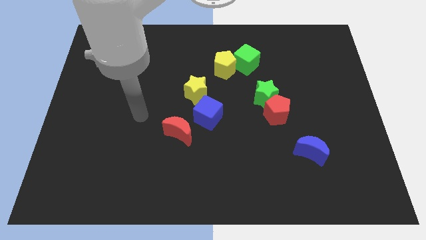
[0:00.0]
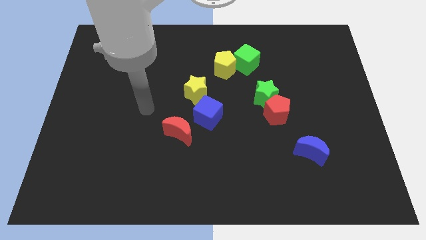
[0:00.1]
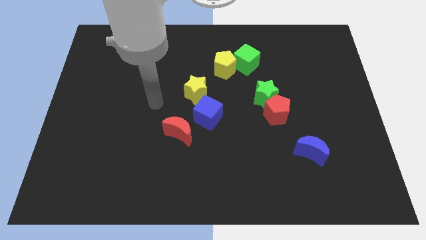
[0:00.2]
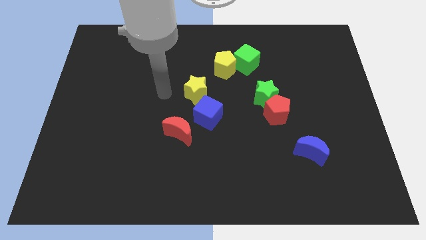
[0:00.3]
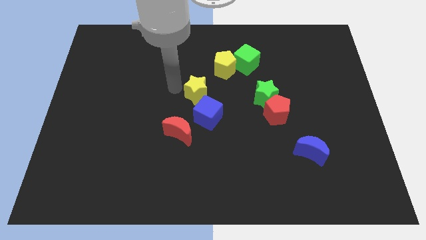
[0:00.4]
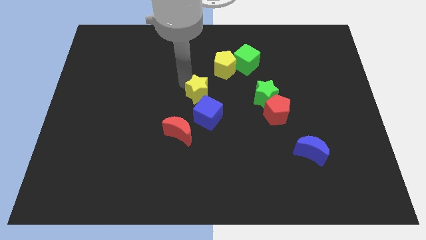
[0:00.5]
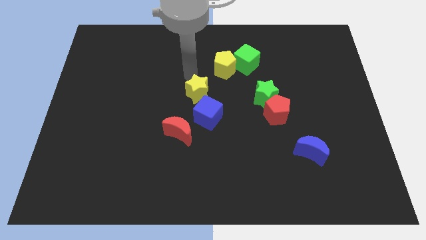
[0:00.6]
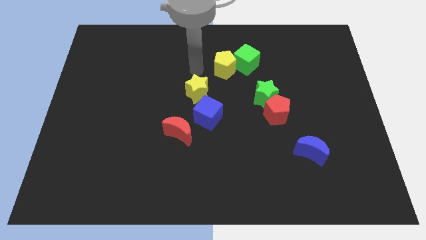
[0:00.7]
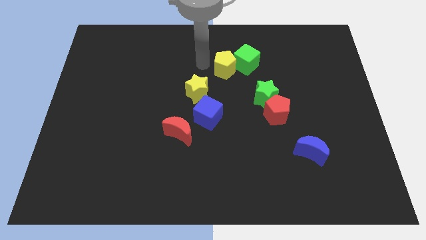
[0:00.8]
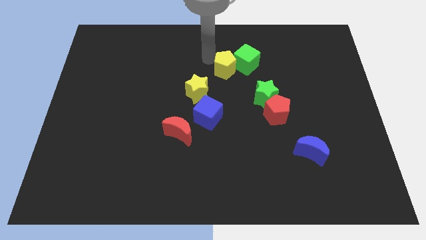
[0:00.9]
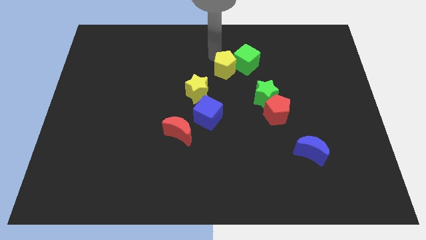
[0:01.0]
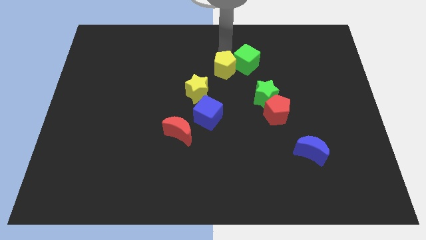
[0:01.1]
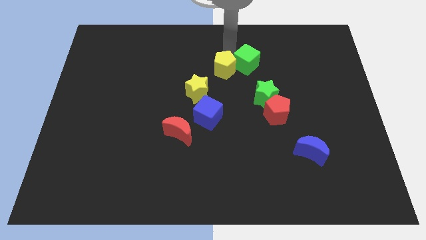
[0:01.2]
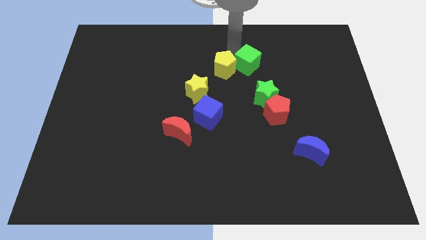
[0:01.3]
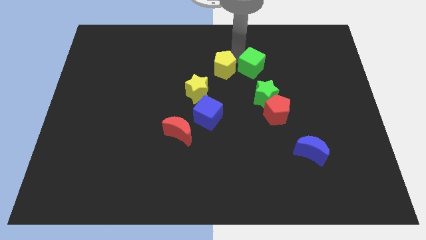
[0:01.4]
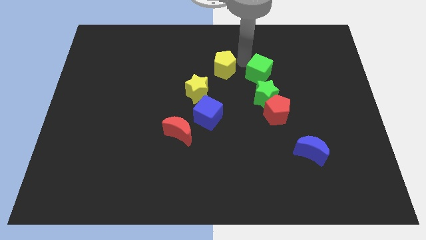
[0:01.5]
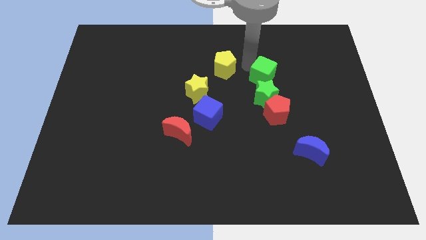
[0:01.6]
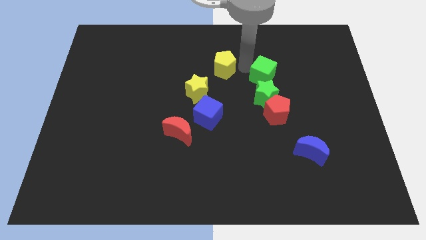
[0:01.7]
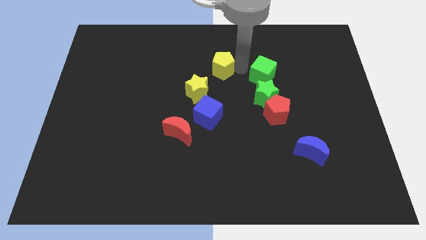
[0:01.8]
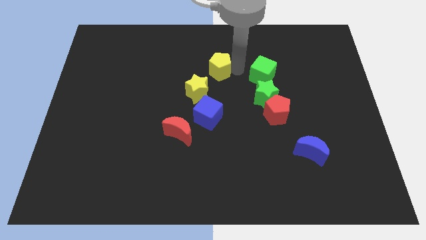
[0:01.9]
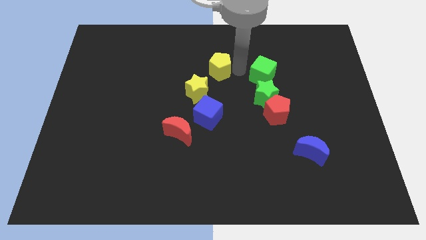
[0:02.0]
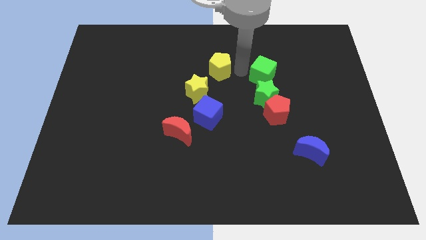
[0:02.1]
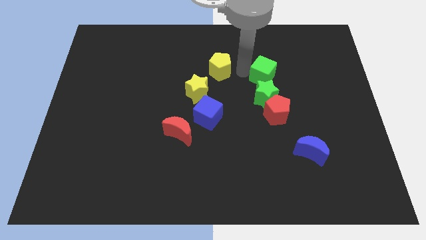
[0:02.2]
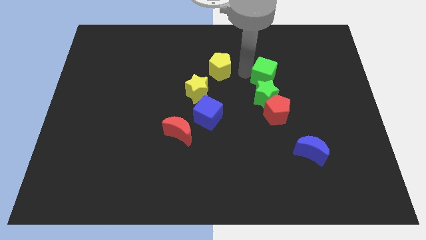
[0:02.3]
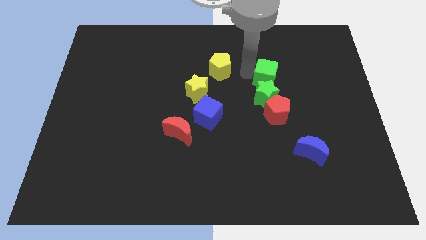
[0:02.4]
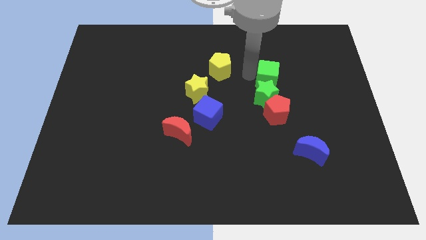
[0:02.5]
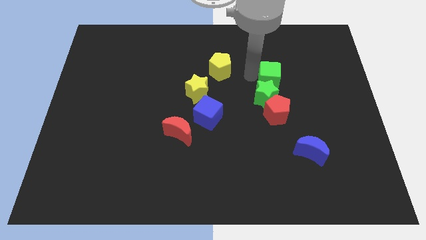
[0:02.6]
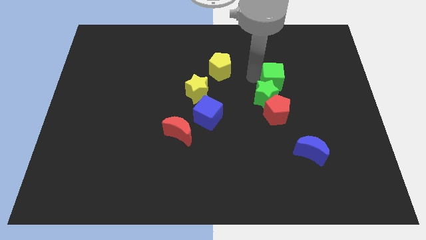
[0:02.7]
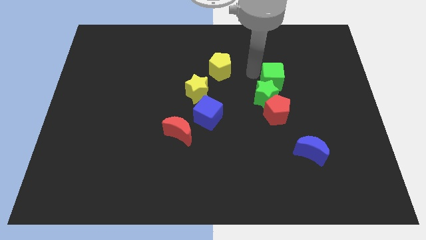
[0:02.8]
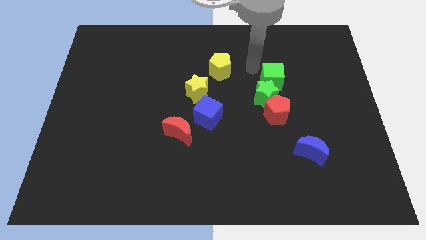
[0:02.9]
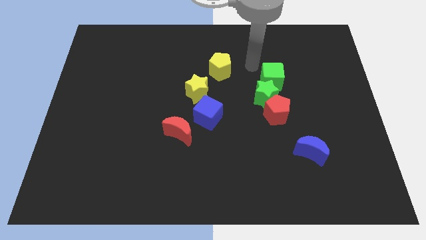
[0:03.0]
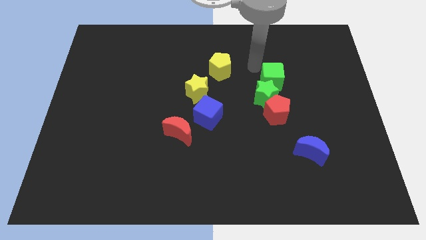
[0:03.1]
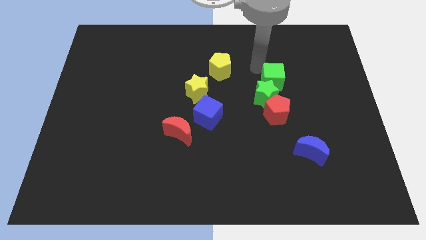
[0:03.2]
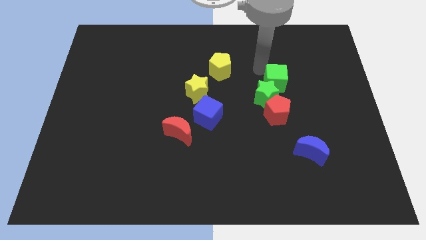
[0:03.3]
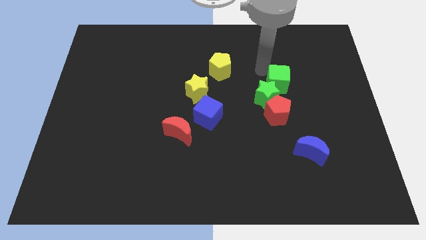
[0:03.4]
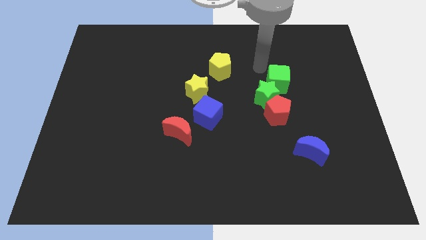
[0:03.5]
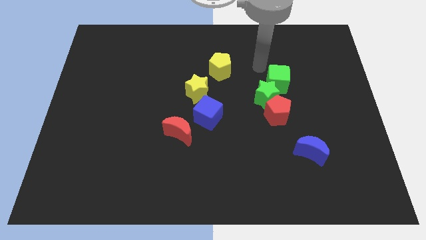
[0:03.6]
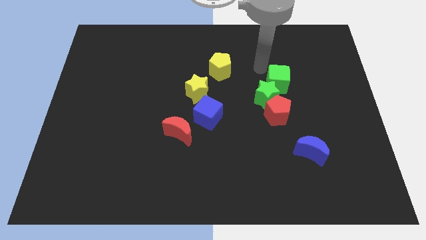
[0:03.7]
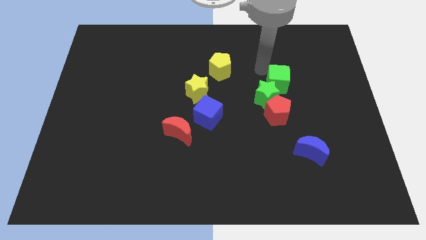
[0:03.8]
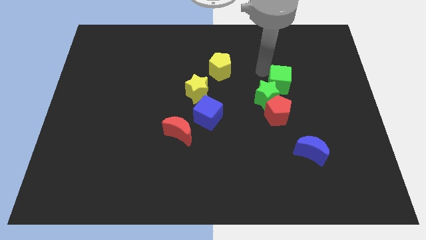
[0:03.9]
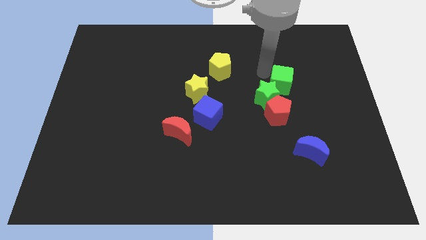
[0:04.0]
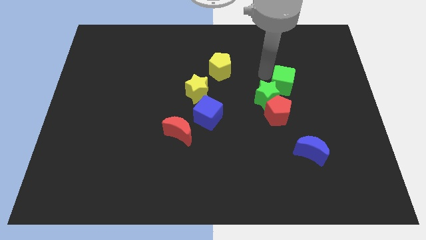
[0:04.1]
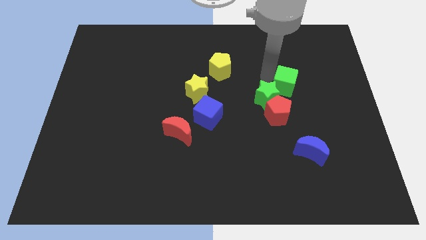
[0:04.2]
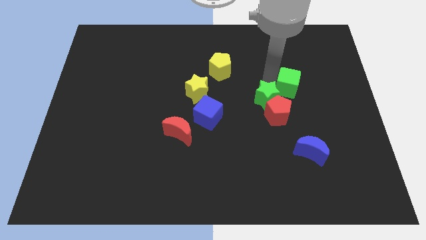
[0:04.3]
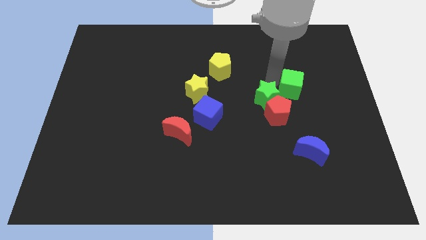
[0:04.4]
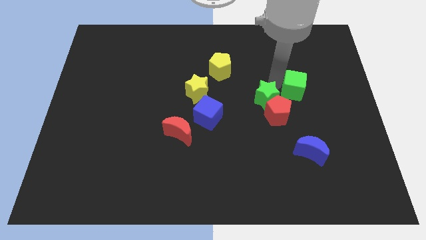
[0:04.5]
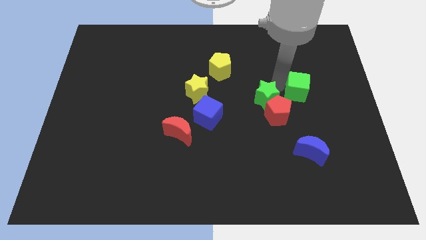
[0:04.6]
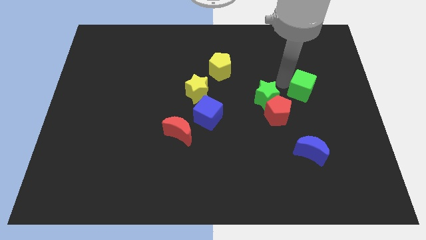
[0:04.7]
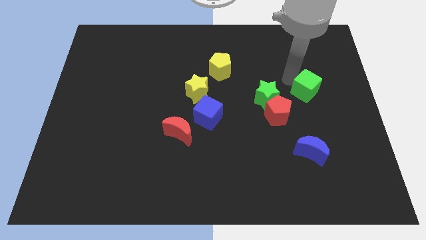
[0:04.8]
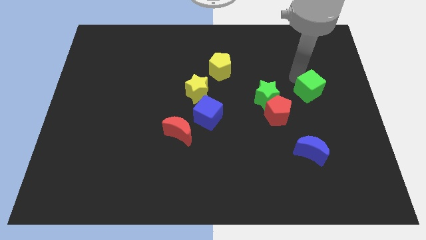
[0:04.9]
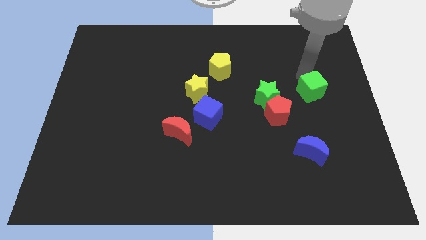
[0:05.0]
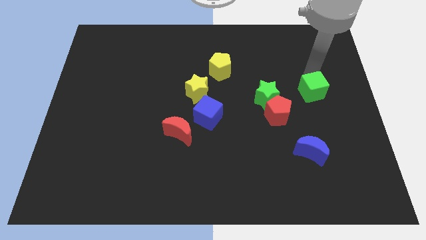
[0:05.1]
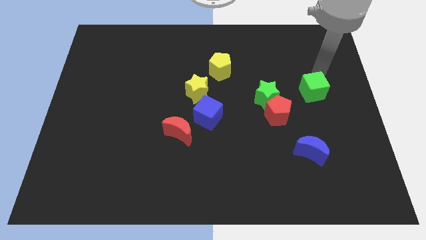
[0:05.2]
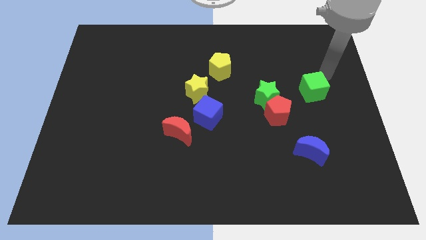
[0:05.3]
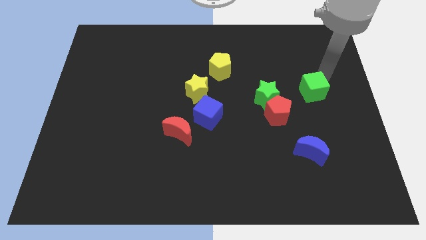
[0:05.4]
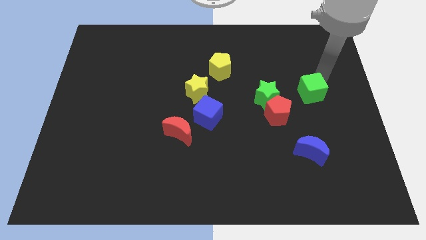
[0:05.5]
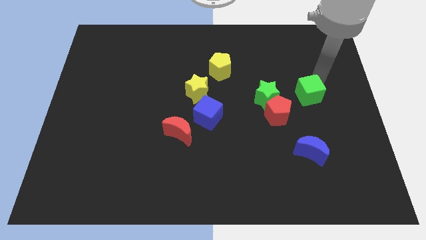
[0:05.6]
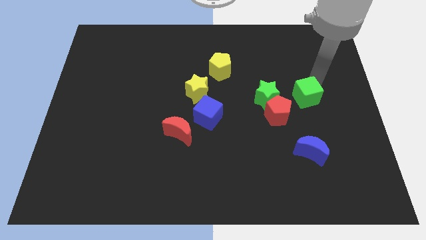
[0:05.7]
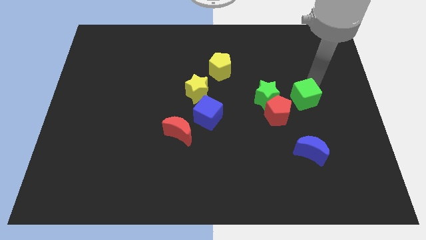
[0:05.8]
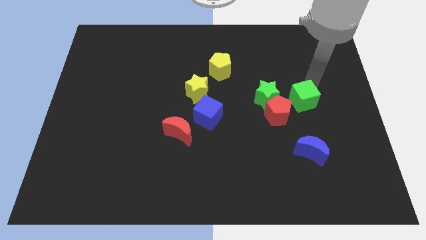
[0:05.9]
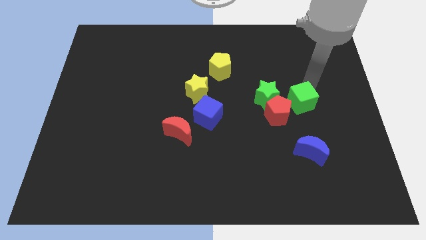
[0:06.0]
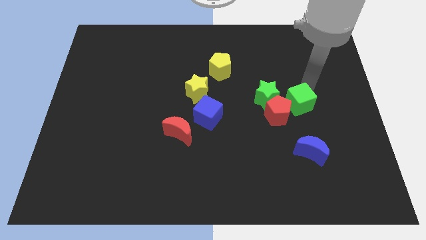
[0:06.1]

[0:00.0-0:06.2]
move the green cube to the bottom right side of the green star

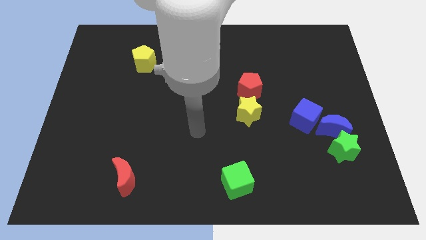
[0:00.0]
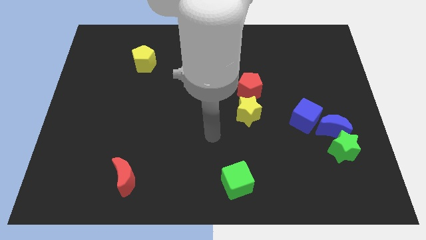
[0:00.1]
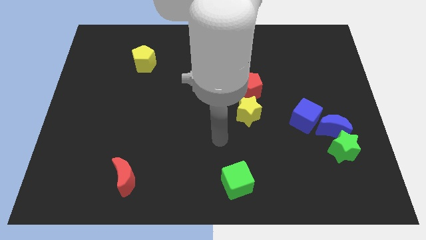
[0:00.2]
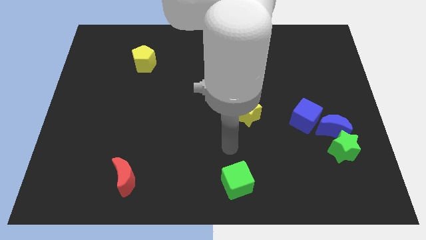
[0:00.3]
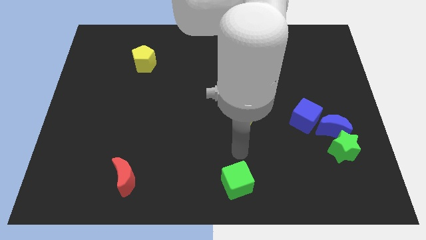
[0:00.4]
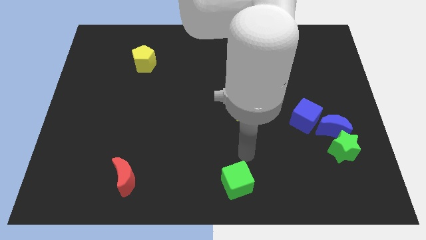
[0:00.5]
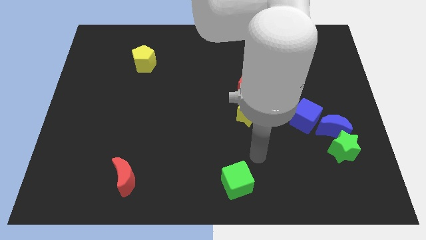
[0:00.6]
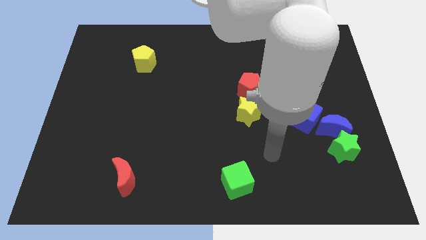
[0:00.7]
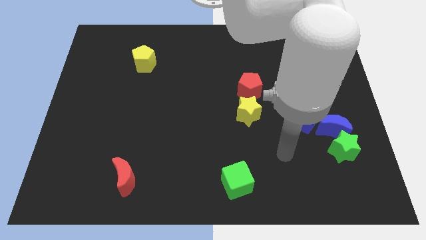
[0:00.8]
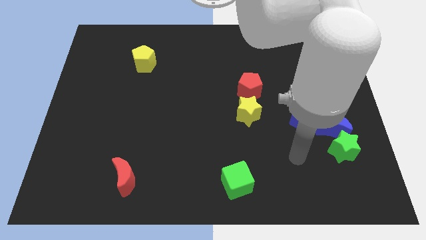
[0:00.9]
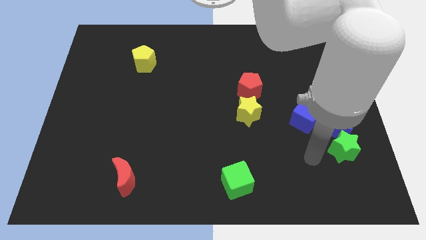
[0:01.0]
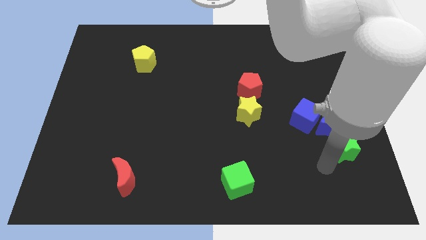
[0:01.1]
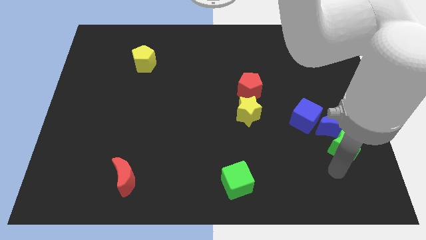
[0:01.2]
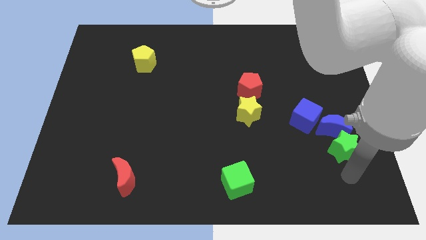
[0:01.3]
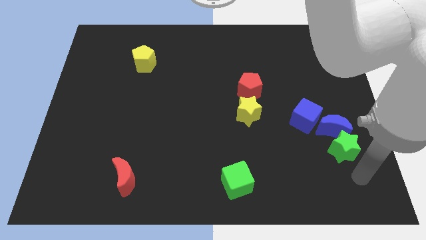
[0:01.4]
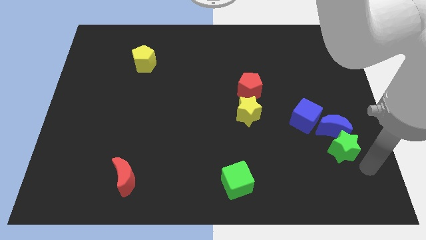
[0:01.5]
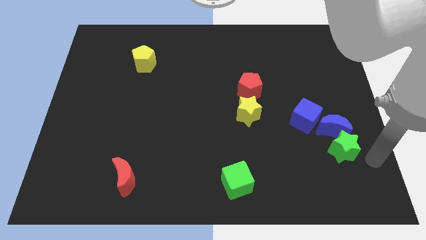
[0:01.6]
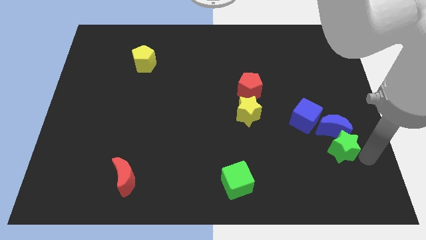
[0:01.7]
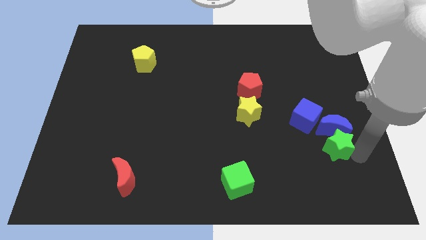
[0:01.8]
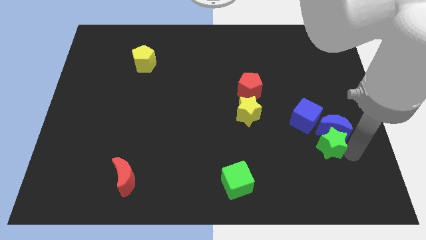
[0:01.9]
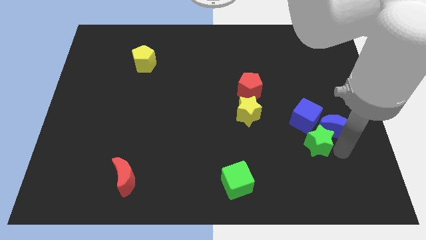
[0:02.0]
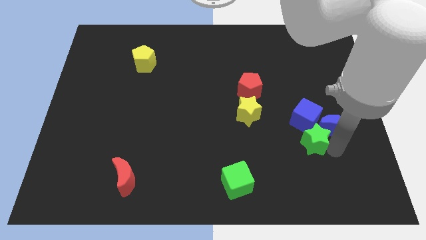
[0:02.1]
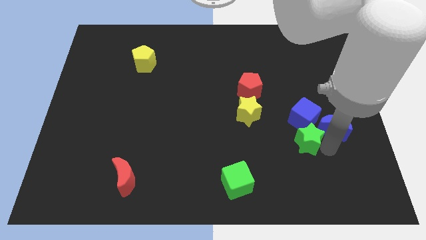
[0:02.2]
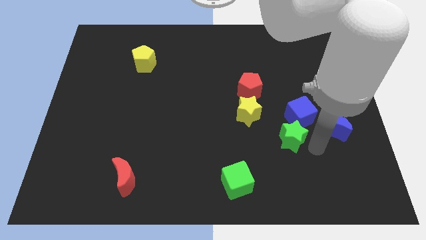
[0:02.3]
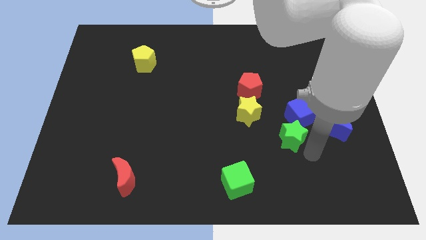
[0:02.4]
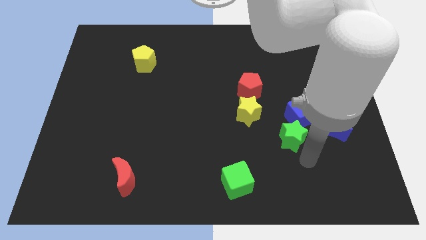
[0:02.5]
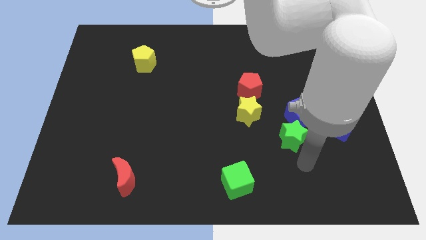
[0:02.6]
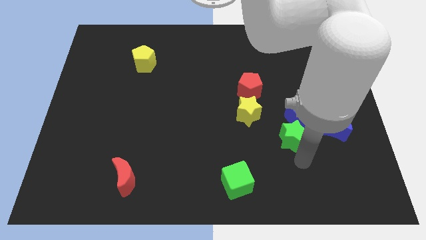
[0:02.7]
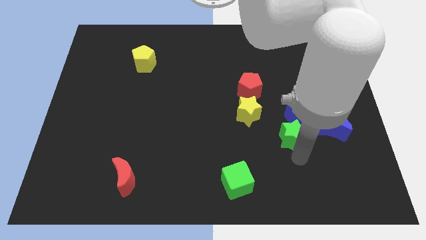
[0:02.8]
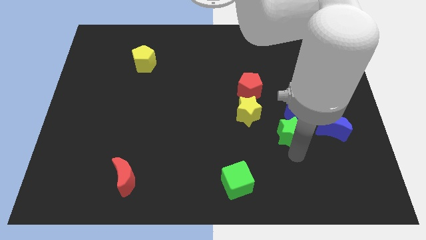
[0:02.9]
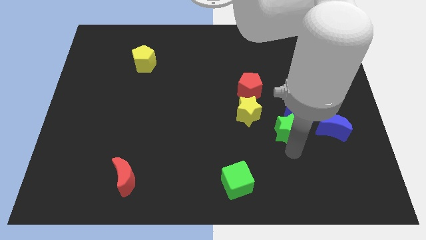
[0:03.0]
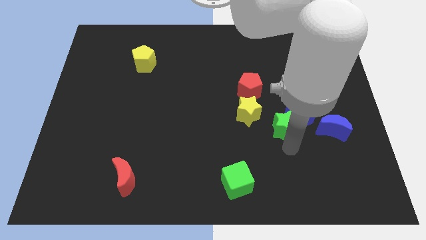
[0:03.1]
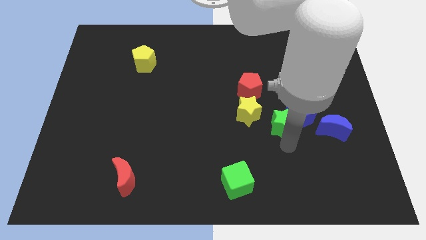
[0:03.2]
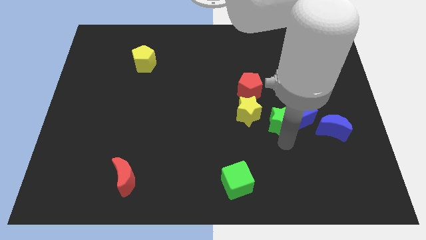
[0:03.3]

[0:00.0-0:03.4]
push the green star diagonally down and to the right of the red pentagon
